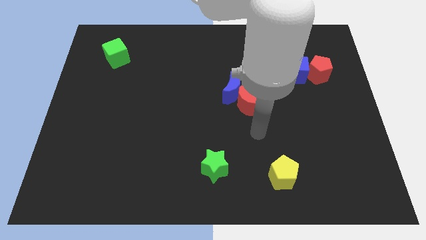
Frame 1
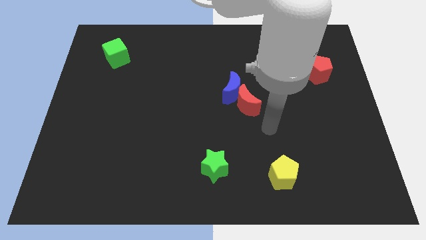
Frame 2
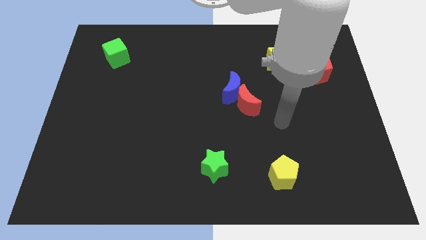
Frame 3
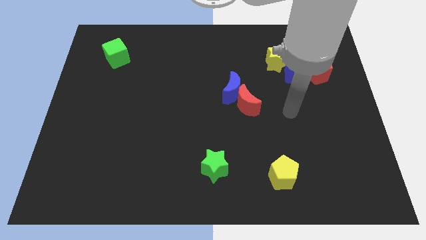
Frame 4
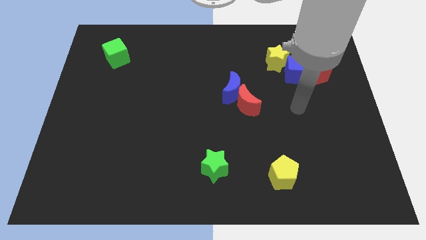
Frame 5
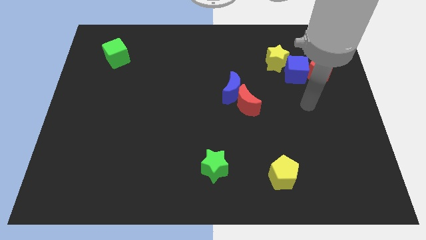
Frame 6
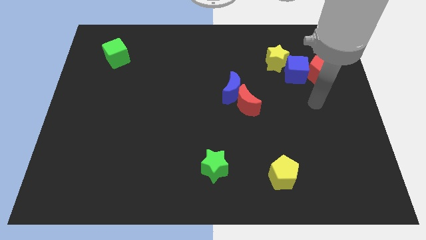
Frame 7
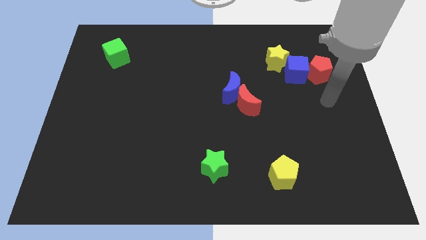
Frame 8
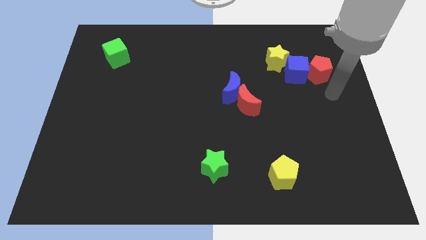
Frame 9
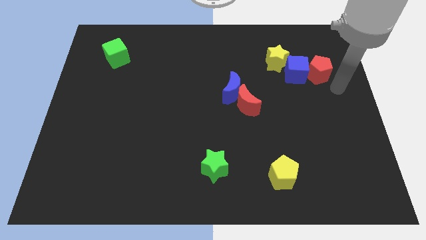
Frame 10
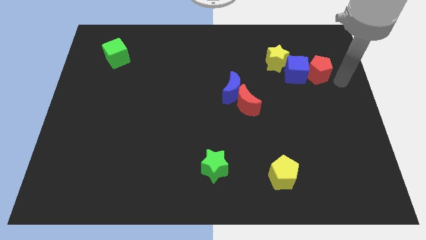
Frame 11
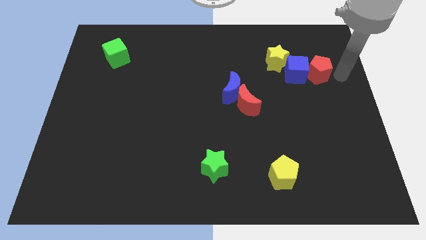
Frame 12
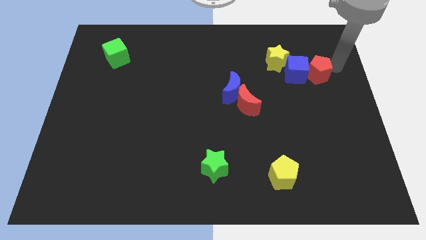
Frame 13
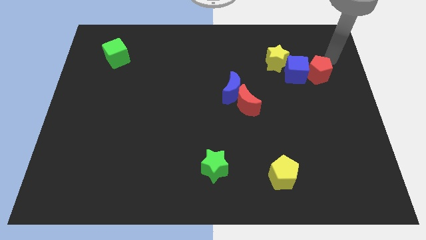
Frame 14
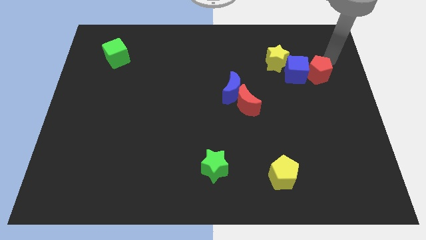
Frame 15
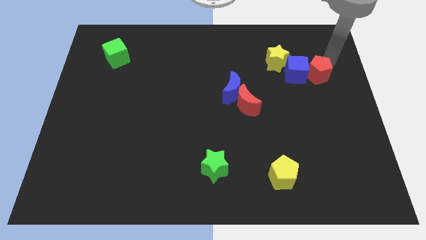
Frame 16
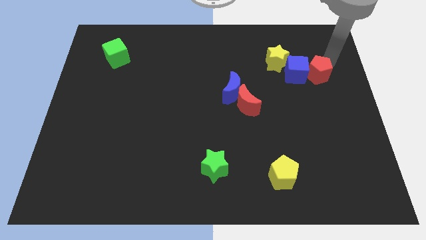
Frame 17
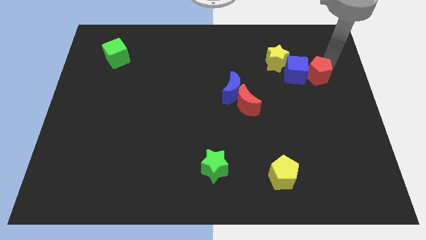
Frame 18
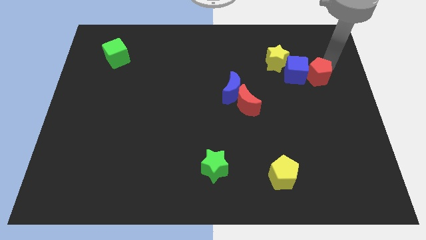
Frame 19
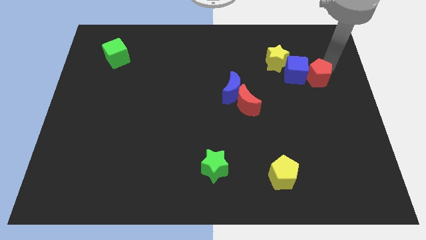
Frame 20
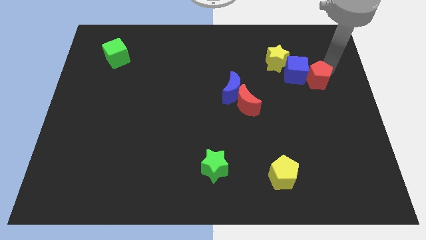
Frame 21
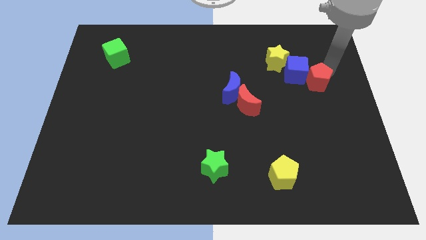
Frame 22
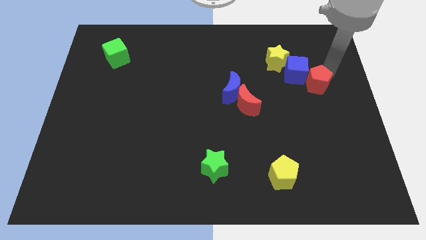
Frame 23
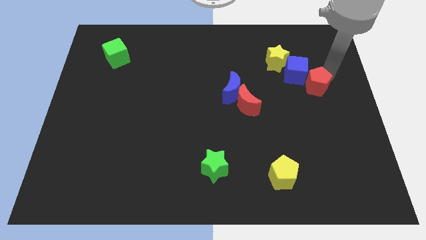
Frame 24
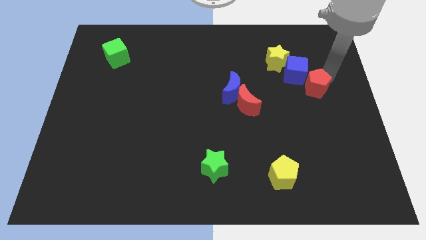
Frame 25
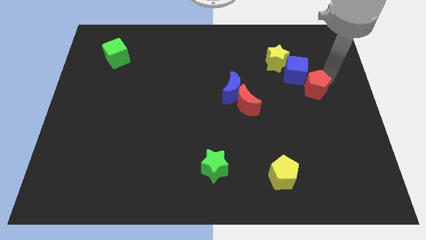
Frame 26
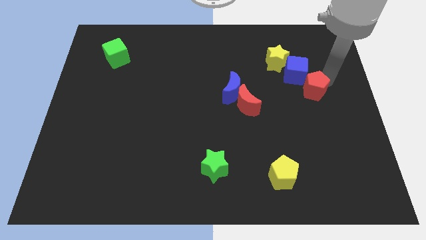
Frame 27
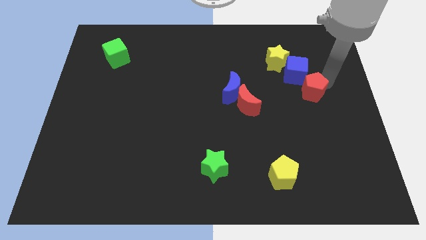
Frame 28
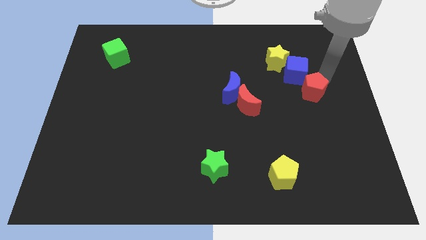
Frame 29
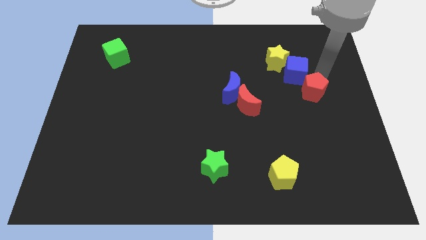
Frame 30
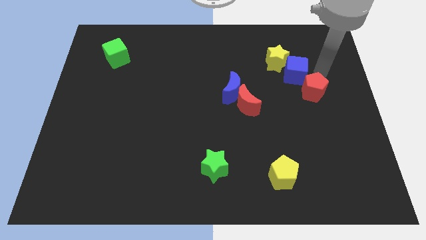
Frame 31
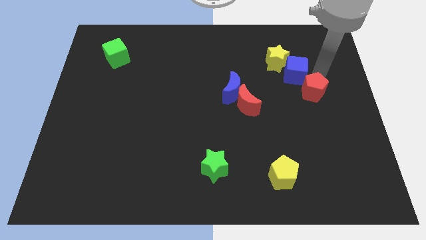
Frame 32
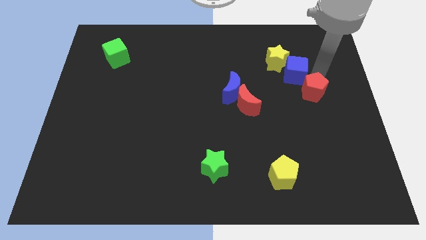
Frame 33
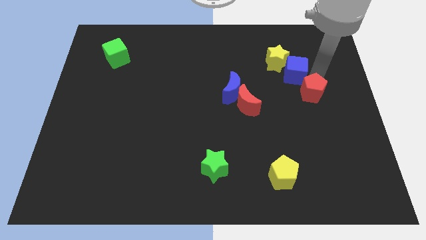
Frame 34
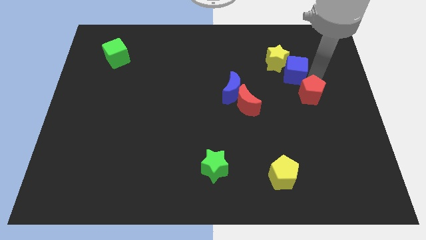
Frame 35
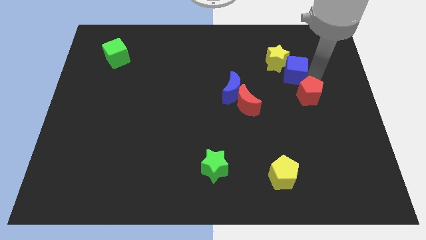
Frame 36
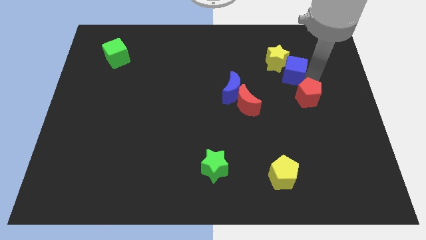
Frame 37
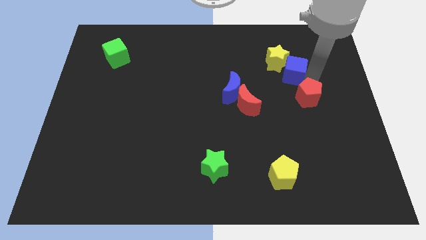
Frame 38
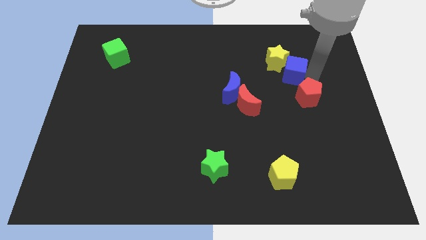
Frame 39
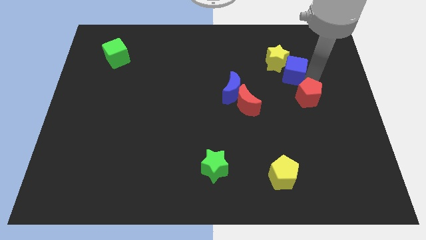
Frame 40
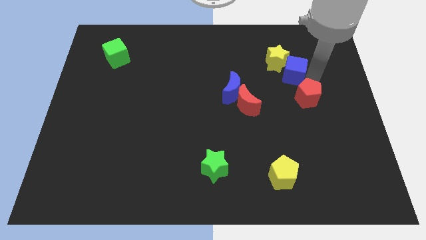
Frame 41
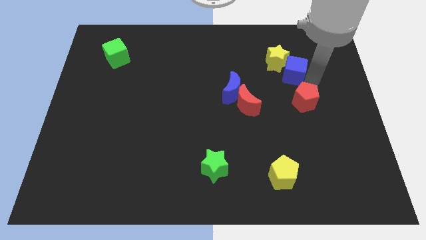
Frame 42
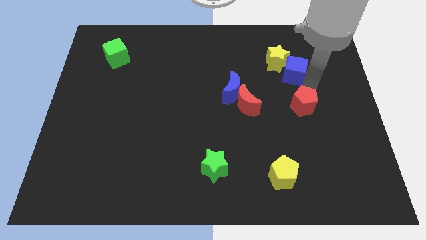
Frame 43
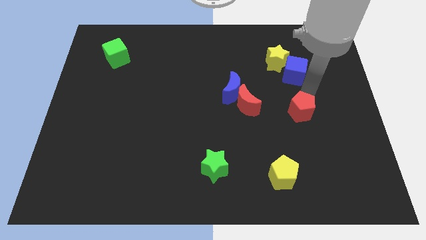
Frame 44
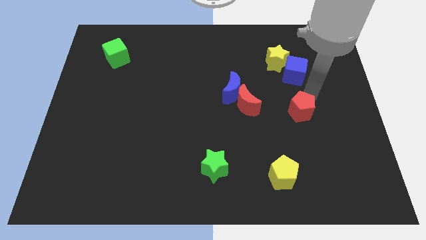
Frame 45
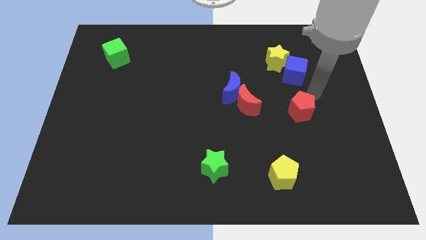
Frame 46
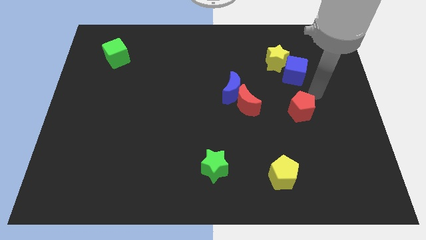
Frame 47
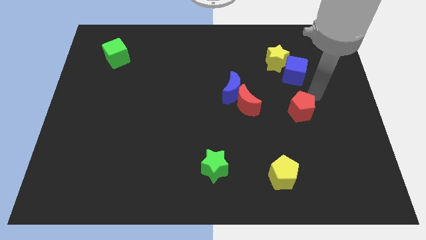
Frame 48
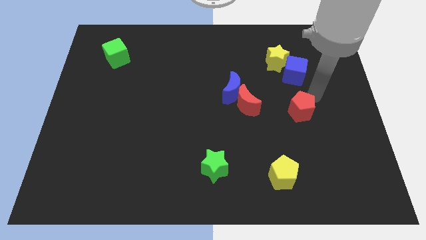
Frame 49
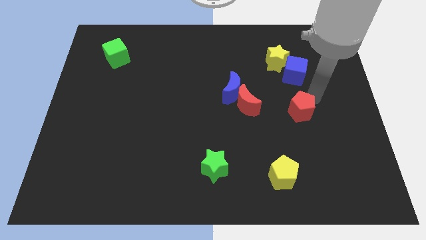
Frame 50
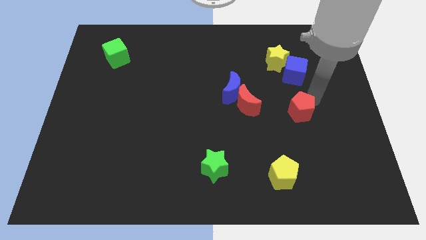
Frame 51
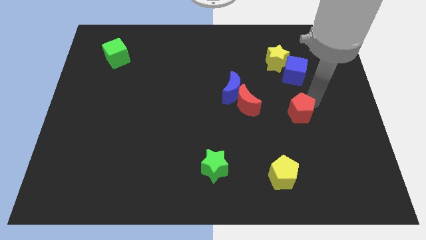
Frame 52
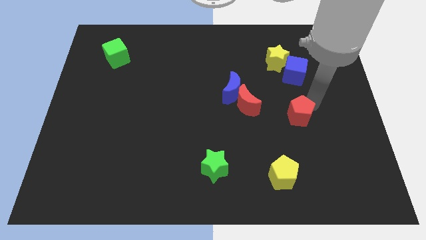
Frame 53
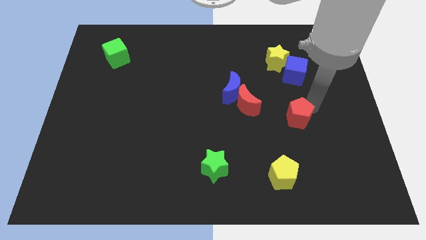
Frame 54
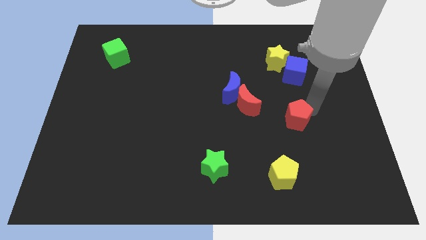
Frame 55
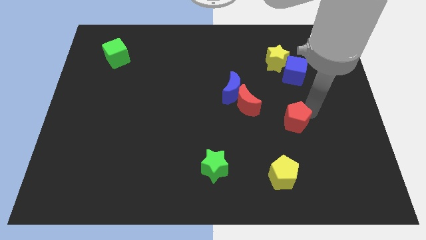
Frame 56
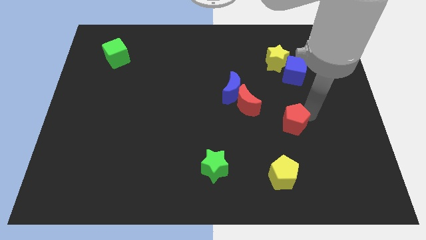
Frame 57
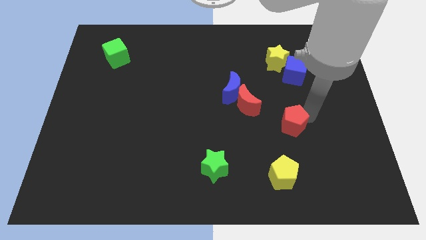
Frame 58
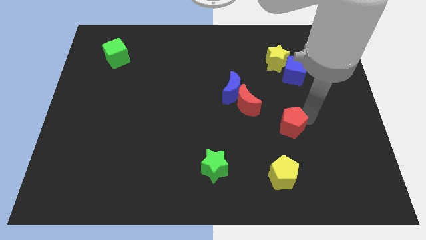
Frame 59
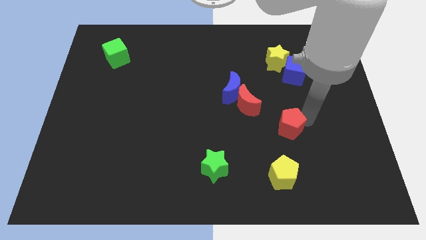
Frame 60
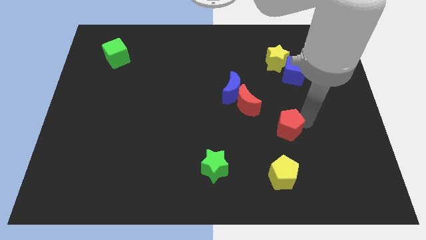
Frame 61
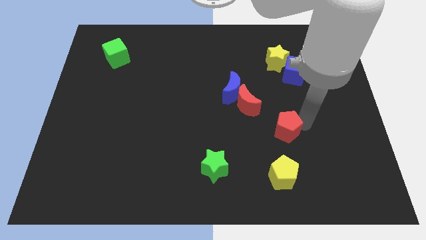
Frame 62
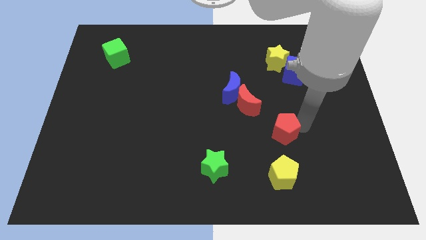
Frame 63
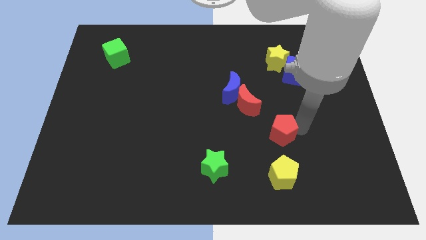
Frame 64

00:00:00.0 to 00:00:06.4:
slide the red pentagon downwards and then to the left

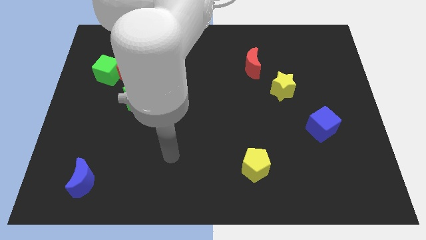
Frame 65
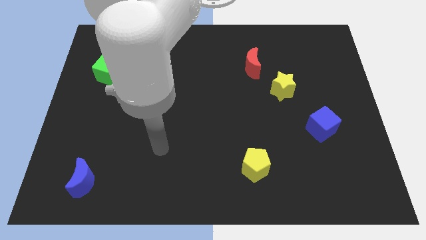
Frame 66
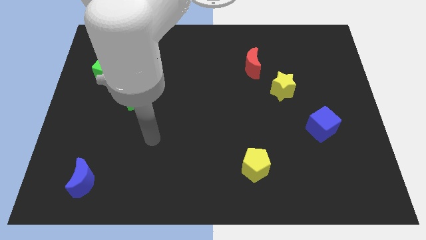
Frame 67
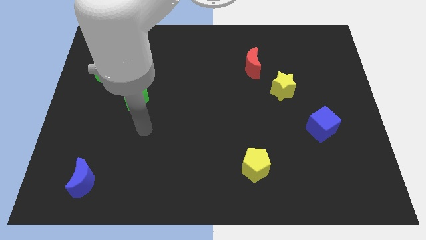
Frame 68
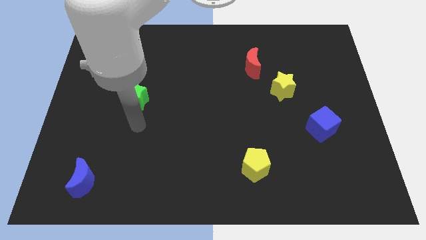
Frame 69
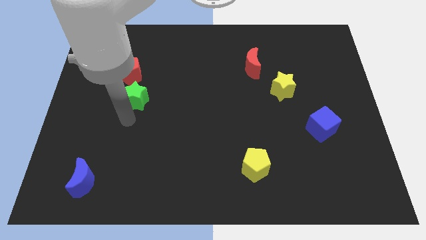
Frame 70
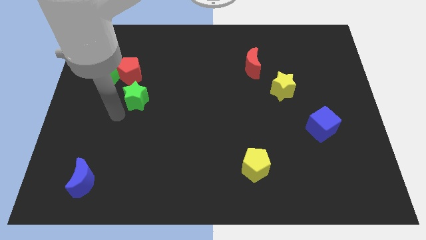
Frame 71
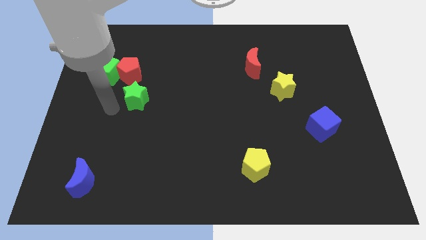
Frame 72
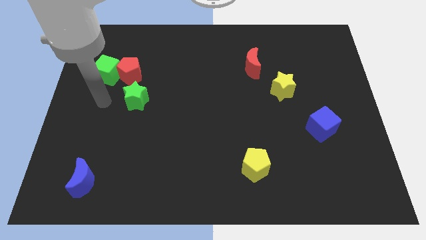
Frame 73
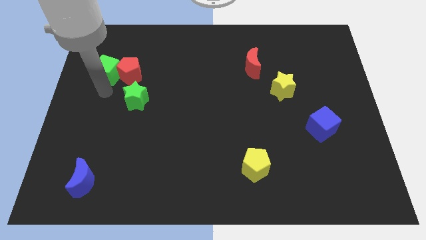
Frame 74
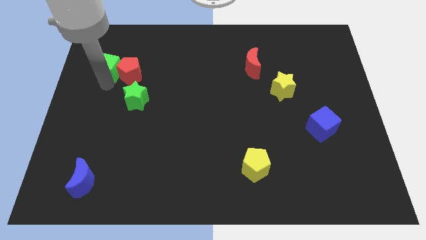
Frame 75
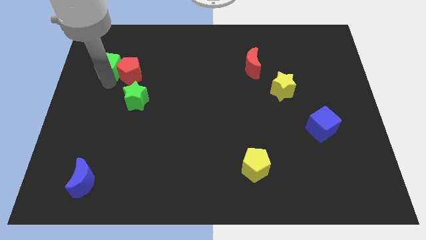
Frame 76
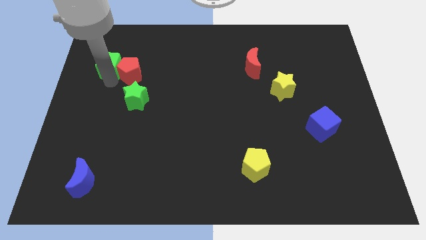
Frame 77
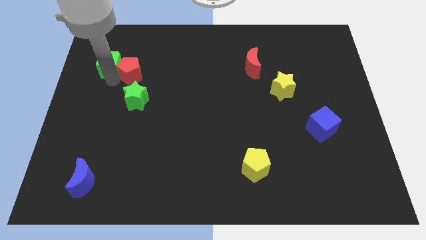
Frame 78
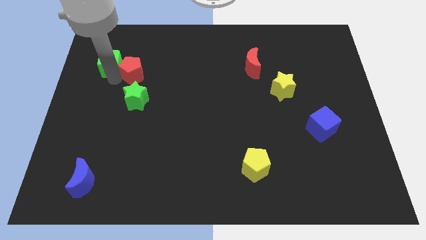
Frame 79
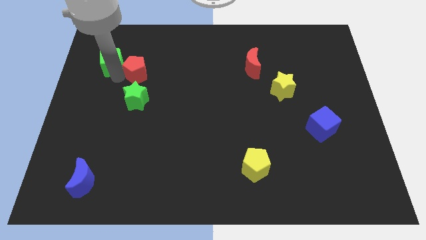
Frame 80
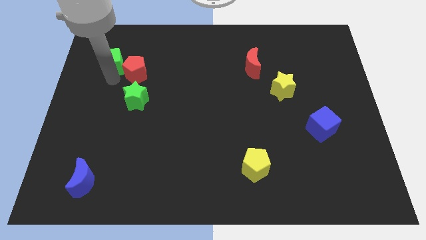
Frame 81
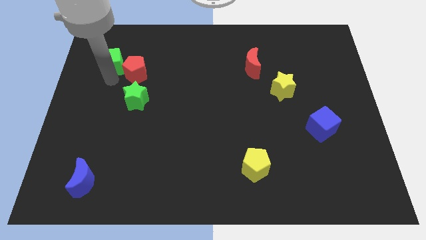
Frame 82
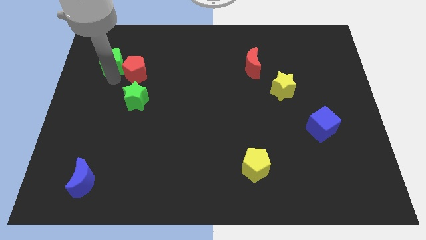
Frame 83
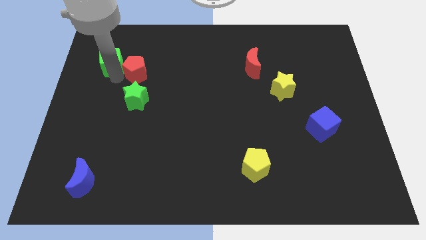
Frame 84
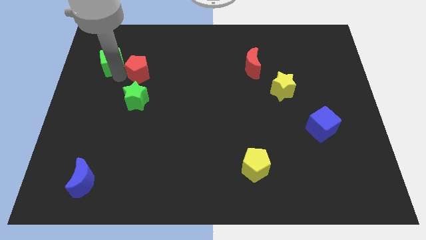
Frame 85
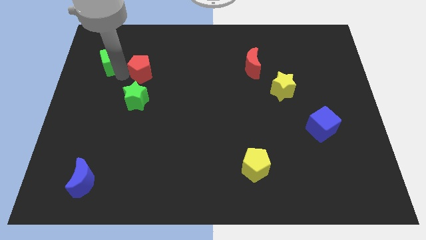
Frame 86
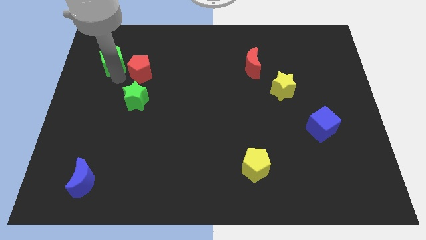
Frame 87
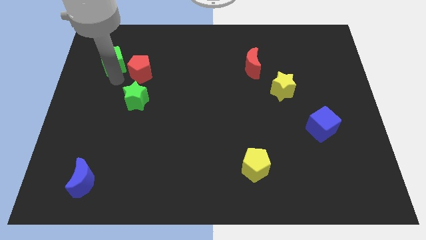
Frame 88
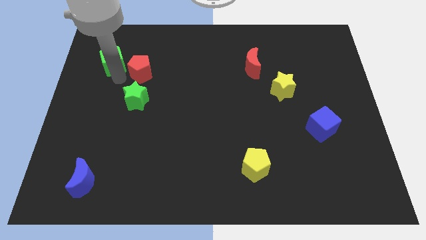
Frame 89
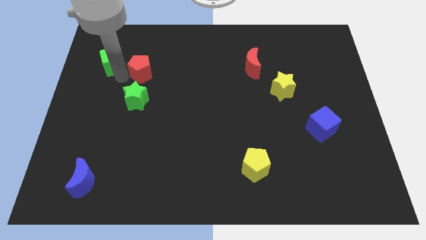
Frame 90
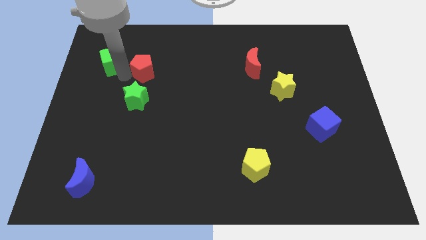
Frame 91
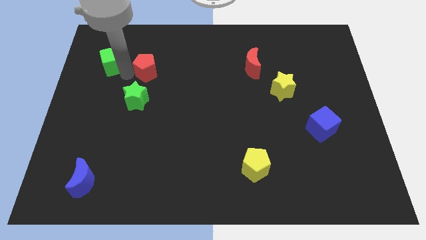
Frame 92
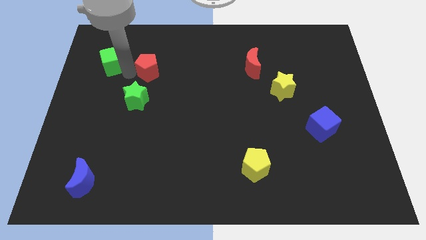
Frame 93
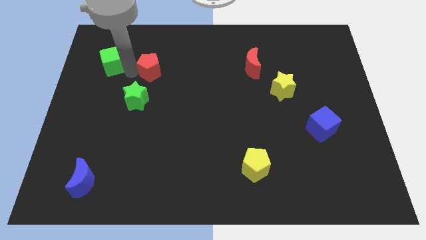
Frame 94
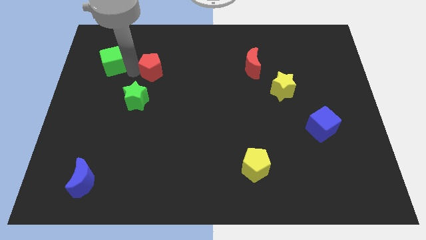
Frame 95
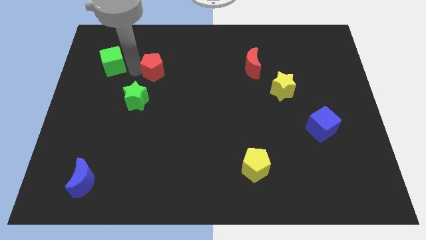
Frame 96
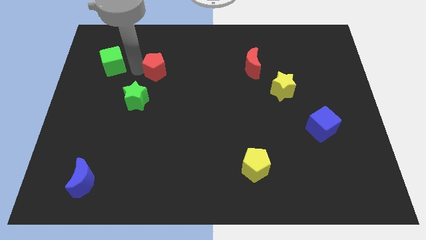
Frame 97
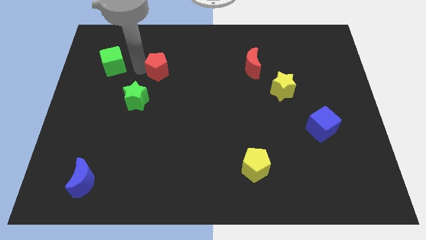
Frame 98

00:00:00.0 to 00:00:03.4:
slide the red pentagon a bit to the right
